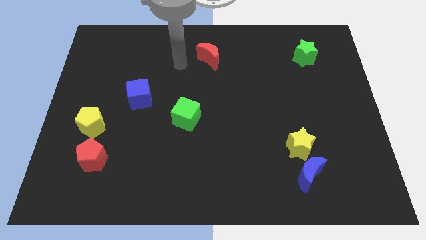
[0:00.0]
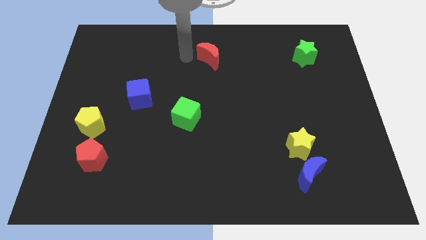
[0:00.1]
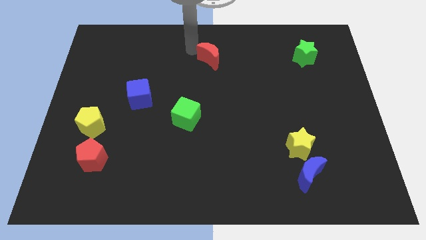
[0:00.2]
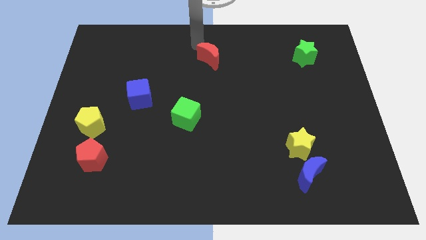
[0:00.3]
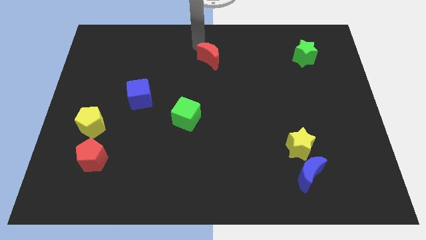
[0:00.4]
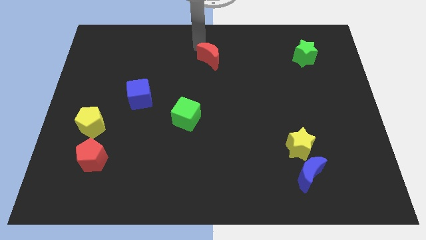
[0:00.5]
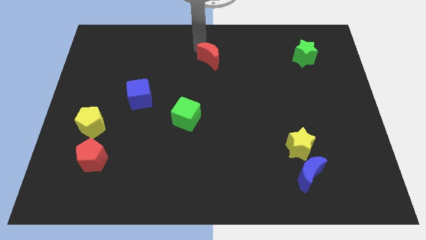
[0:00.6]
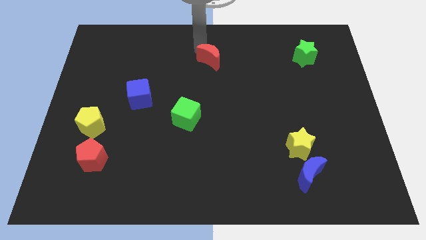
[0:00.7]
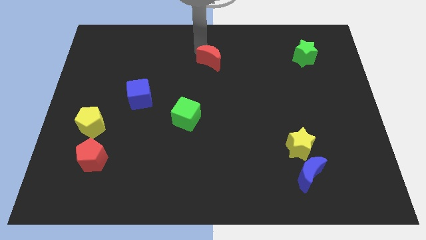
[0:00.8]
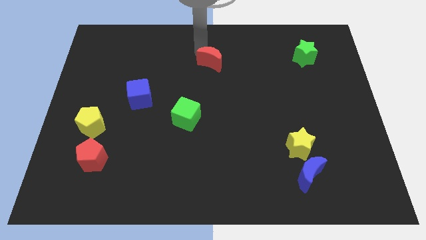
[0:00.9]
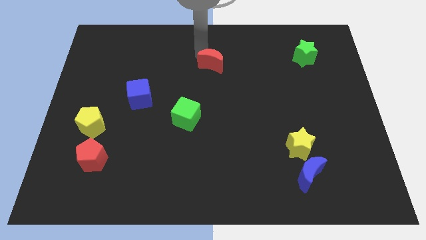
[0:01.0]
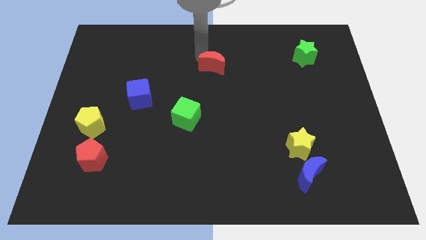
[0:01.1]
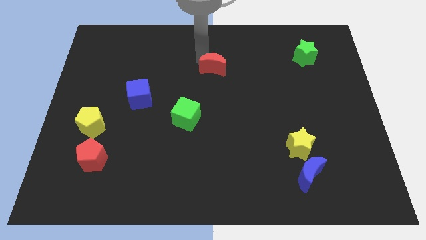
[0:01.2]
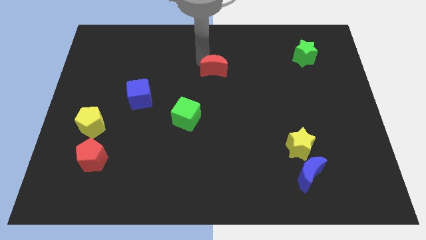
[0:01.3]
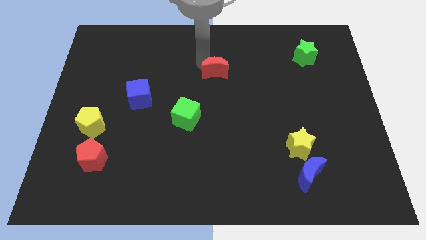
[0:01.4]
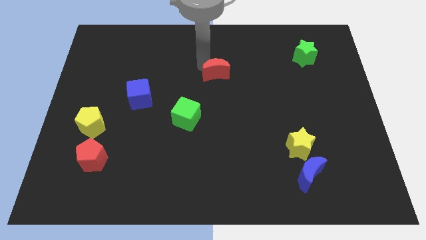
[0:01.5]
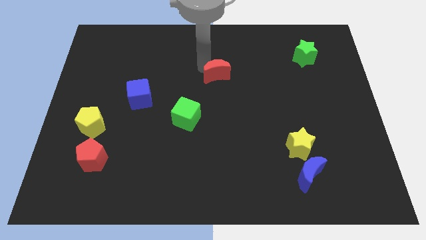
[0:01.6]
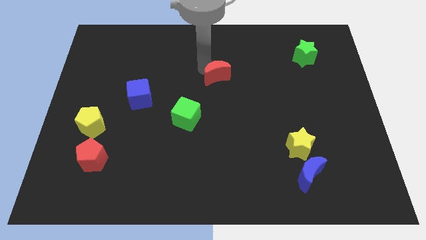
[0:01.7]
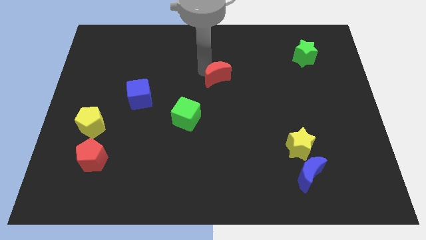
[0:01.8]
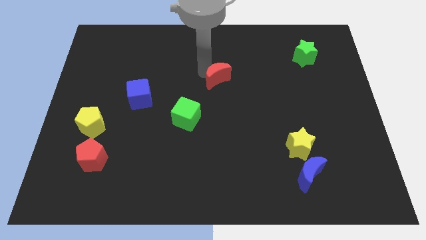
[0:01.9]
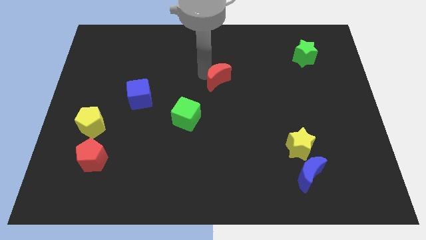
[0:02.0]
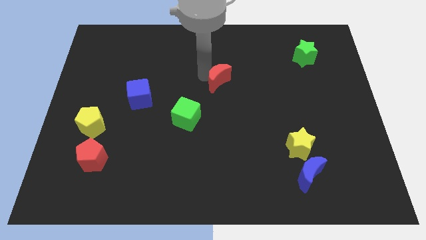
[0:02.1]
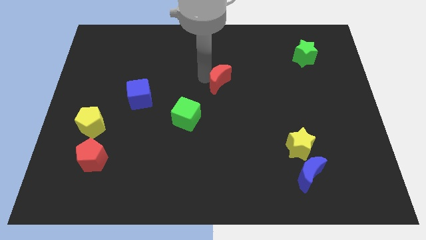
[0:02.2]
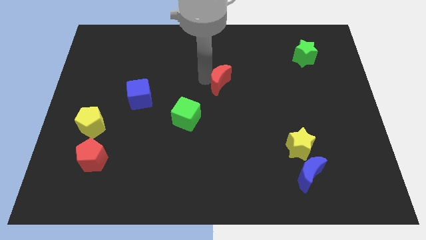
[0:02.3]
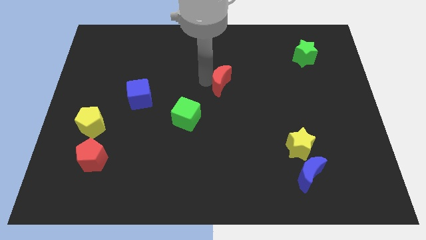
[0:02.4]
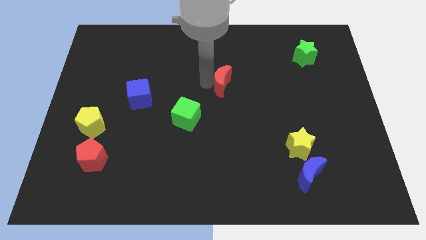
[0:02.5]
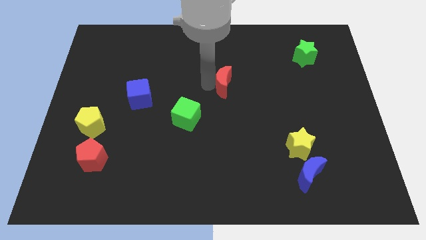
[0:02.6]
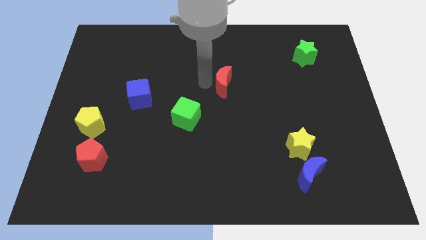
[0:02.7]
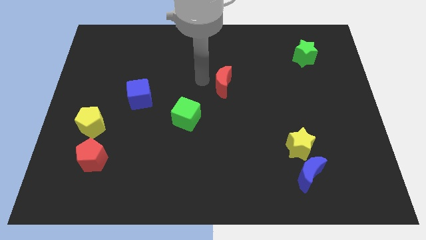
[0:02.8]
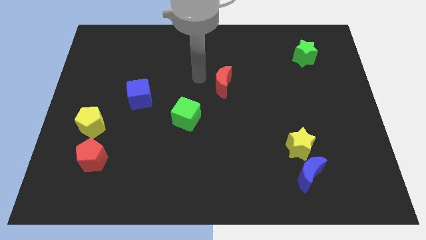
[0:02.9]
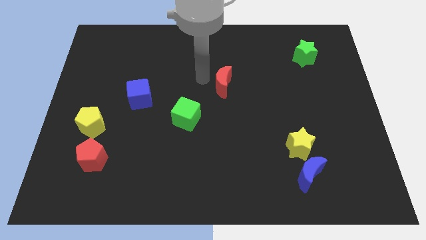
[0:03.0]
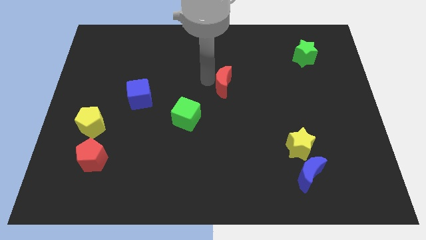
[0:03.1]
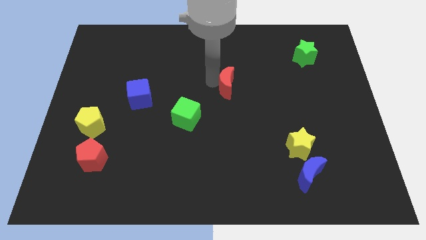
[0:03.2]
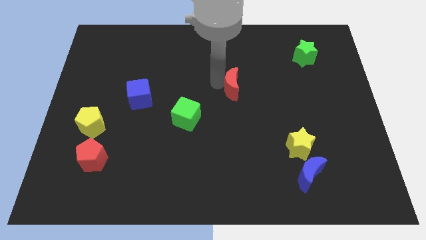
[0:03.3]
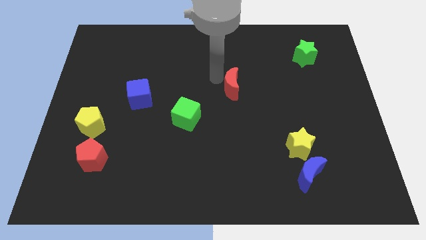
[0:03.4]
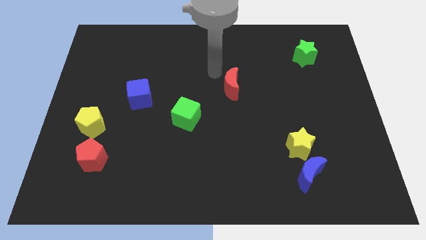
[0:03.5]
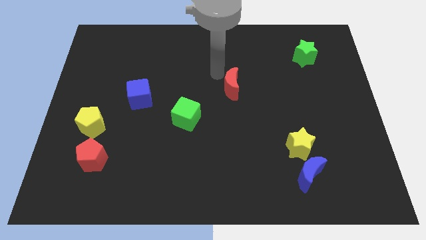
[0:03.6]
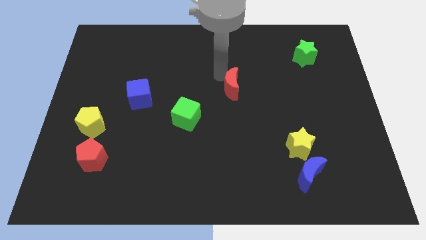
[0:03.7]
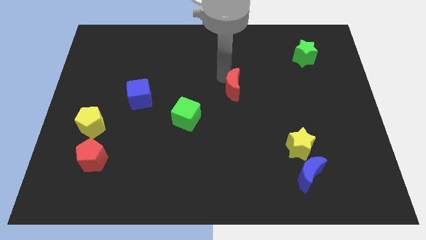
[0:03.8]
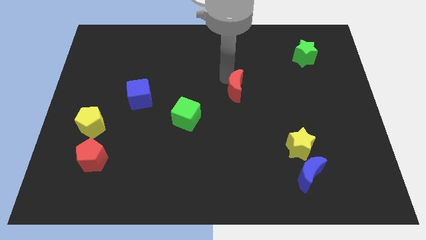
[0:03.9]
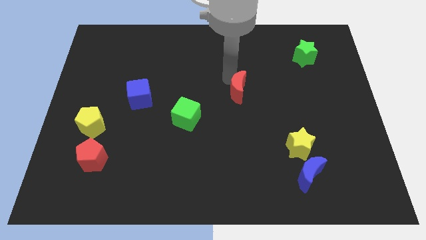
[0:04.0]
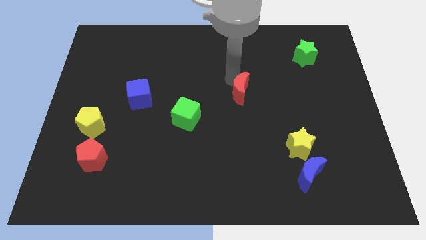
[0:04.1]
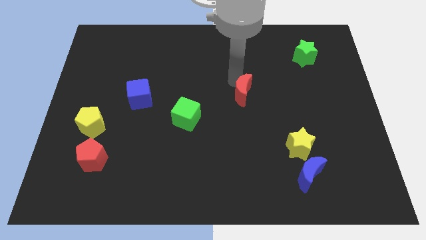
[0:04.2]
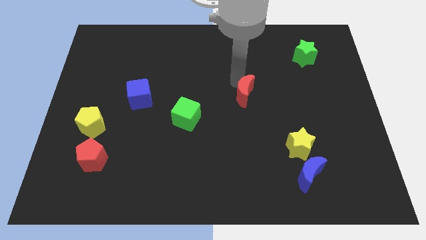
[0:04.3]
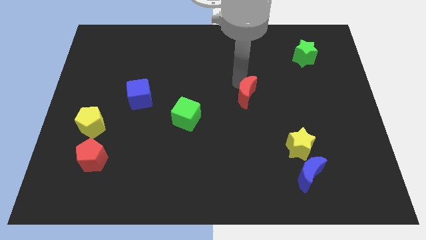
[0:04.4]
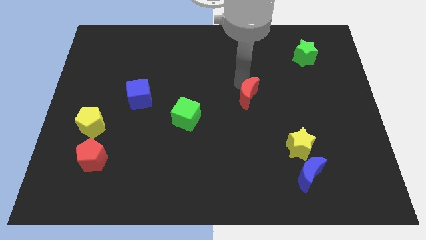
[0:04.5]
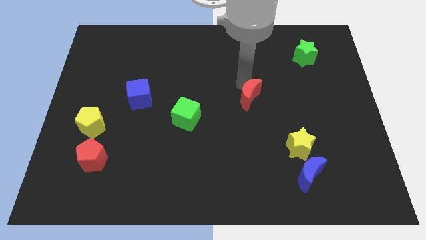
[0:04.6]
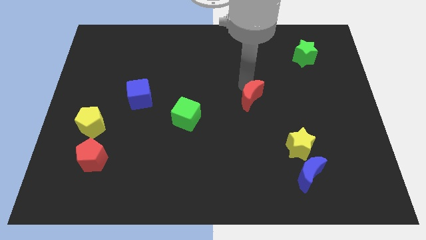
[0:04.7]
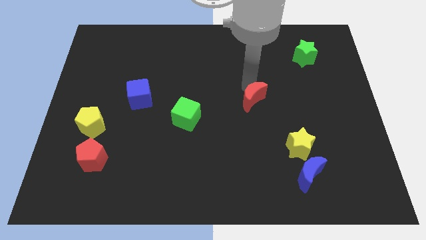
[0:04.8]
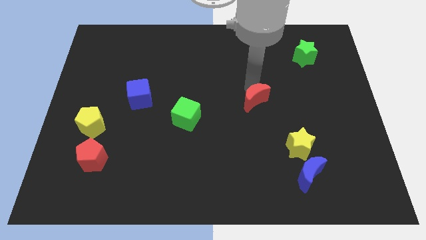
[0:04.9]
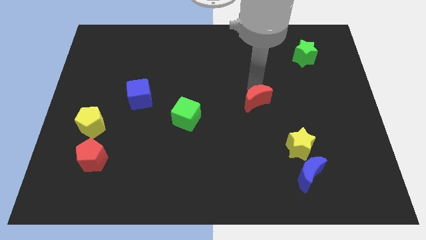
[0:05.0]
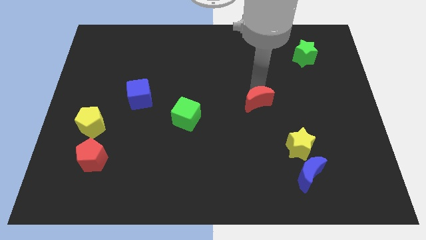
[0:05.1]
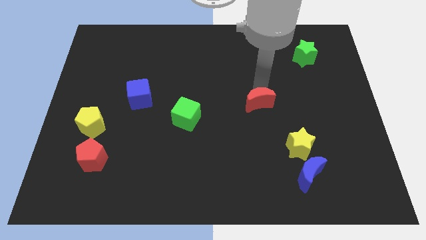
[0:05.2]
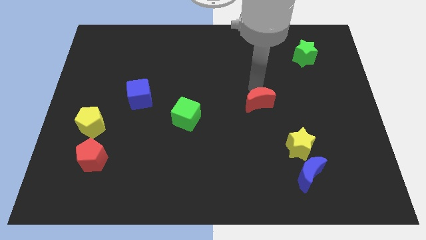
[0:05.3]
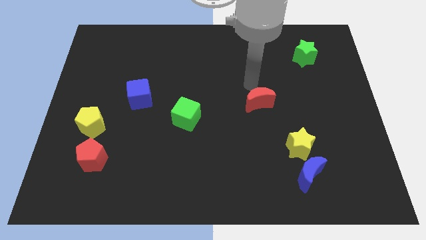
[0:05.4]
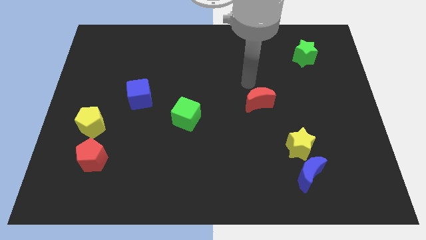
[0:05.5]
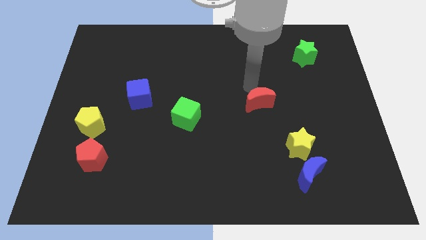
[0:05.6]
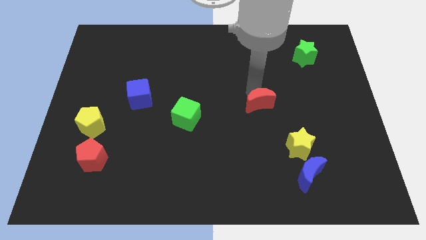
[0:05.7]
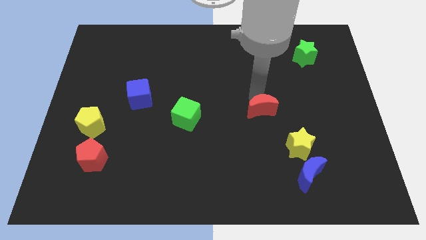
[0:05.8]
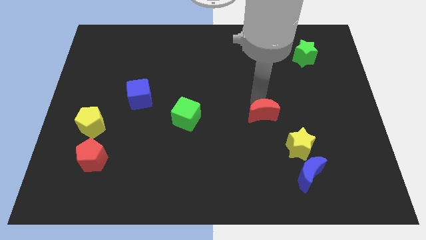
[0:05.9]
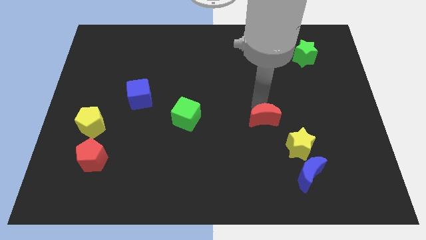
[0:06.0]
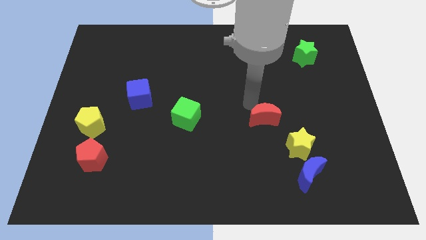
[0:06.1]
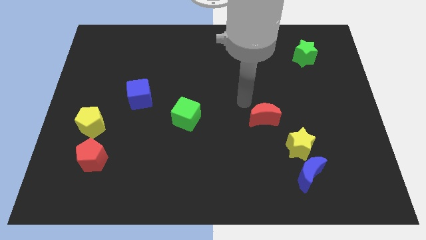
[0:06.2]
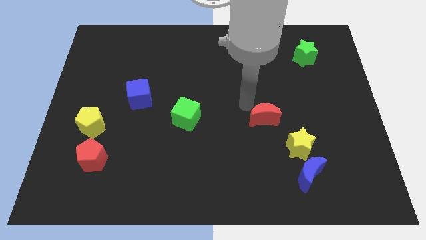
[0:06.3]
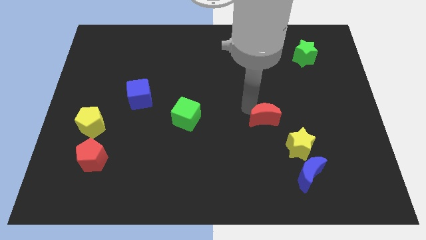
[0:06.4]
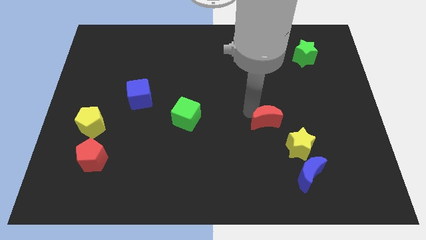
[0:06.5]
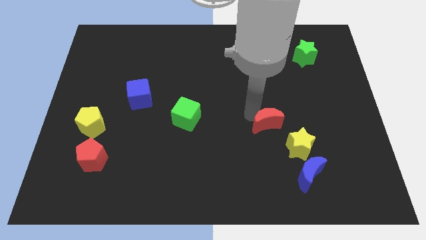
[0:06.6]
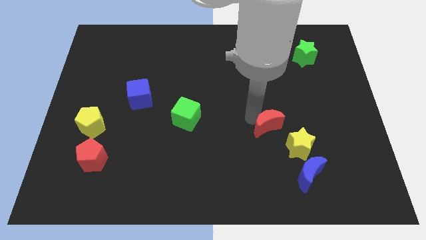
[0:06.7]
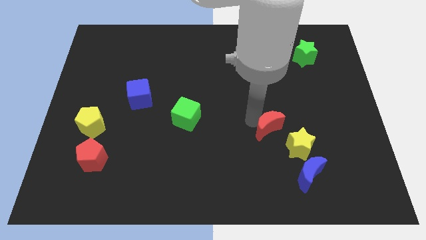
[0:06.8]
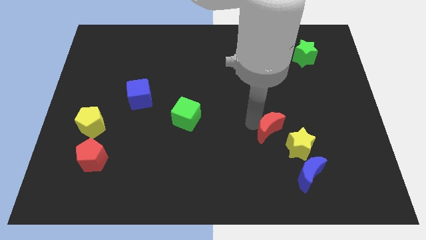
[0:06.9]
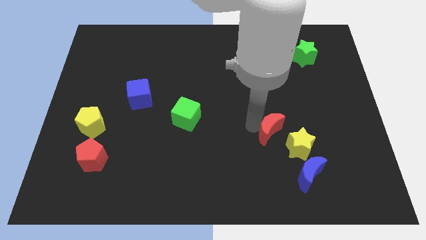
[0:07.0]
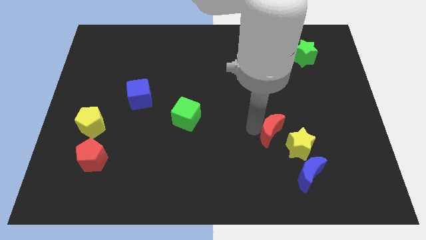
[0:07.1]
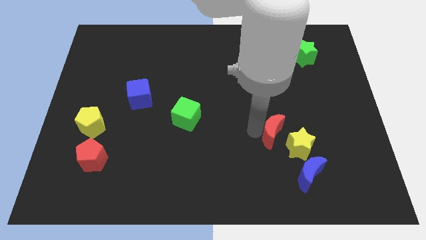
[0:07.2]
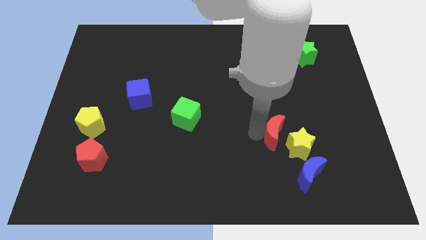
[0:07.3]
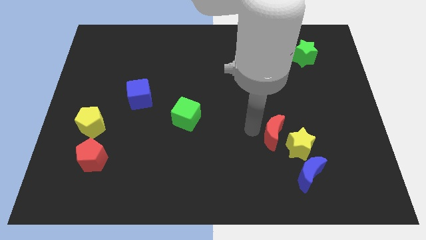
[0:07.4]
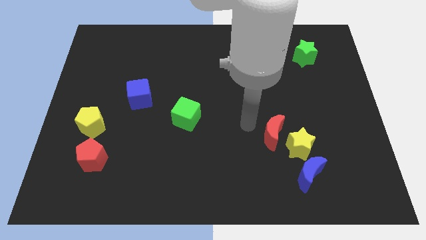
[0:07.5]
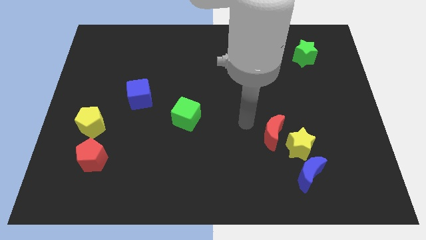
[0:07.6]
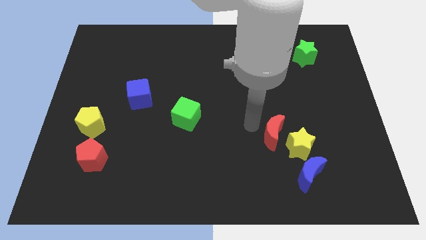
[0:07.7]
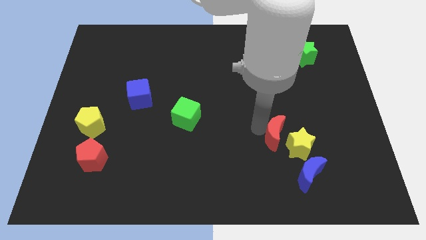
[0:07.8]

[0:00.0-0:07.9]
slide the red moon close to the yellow star
